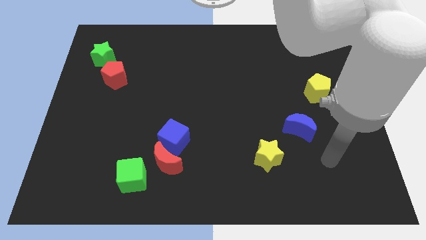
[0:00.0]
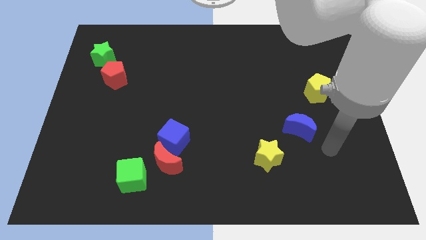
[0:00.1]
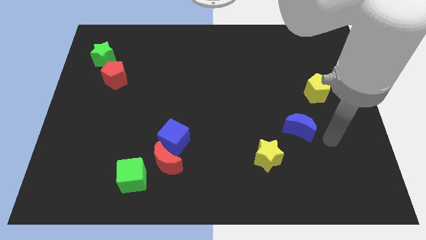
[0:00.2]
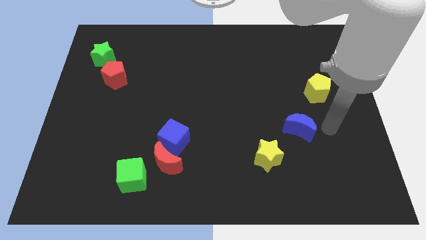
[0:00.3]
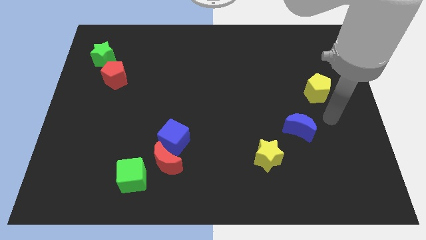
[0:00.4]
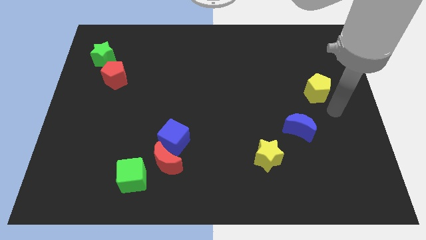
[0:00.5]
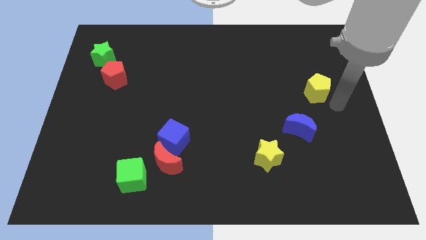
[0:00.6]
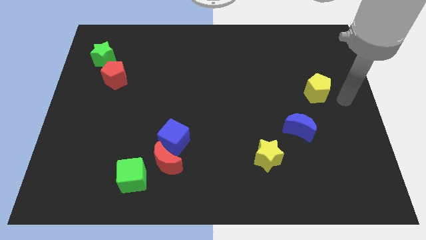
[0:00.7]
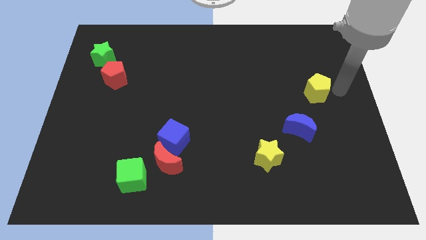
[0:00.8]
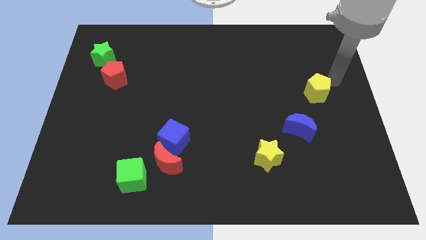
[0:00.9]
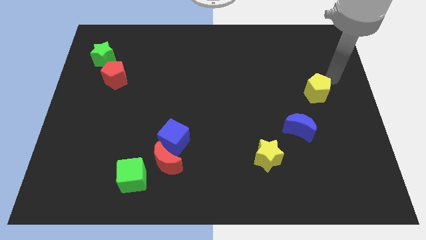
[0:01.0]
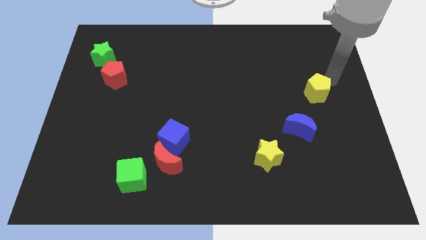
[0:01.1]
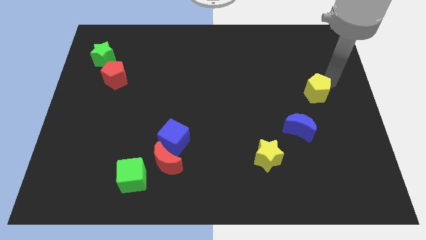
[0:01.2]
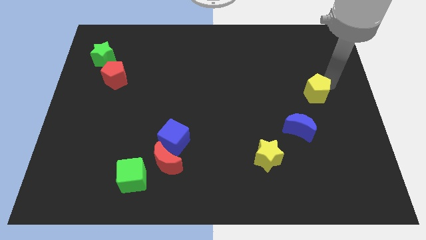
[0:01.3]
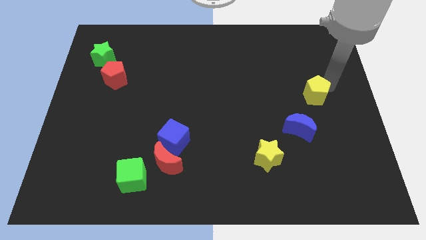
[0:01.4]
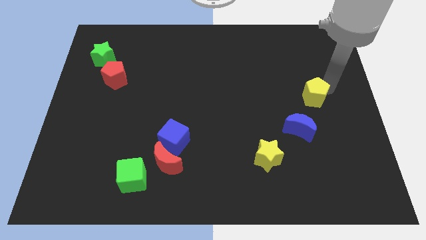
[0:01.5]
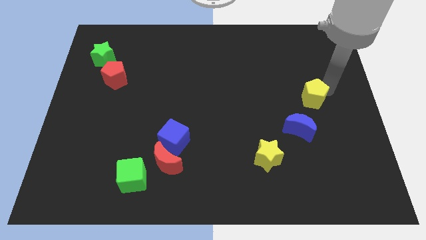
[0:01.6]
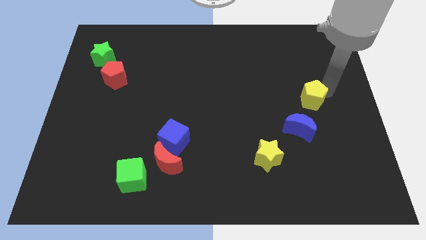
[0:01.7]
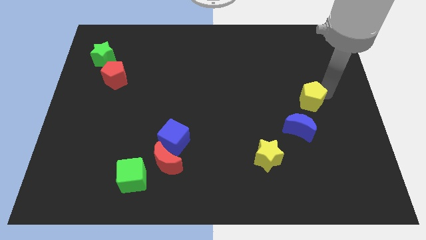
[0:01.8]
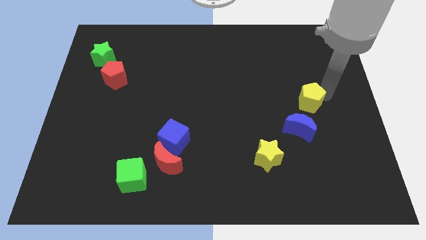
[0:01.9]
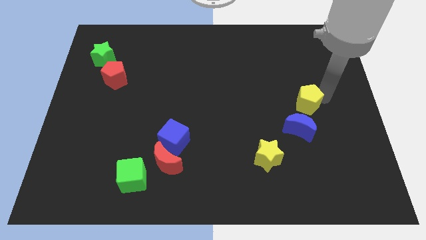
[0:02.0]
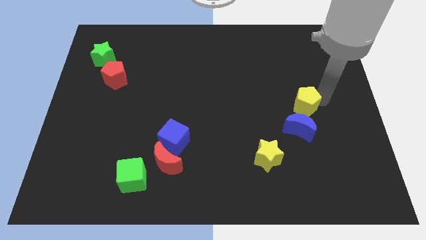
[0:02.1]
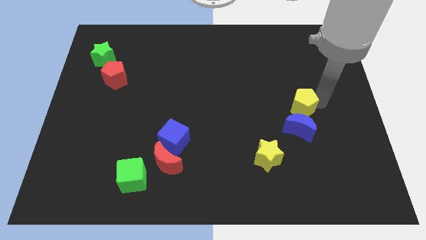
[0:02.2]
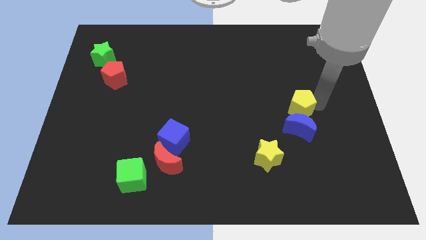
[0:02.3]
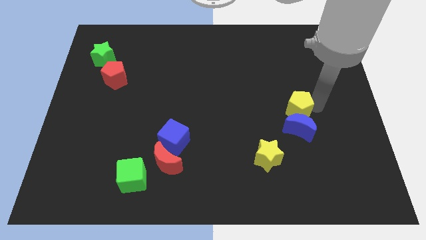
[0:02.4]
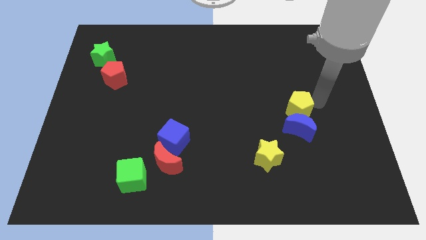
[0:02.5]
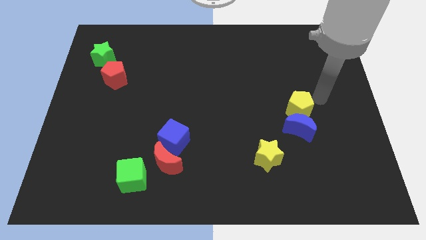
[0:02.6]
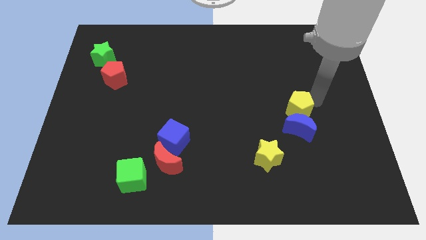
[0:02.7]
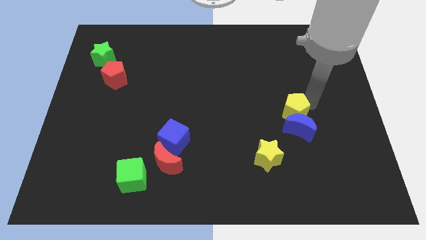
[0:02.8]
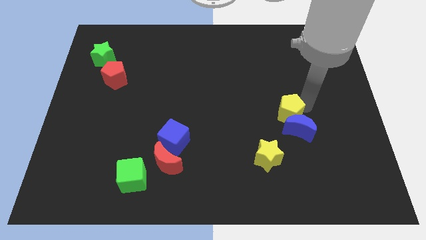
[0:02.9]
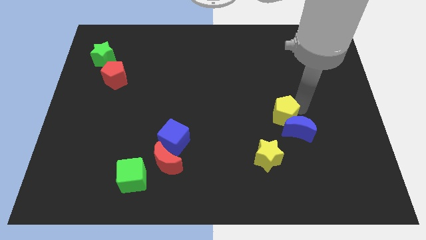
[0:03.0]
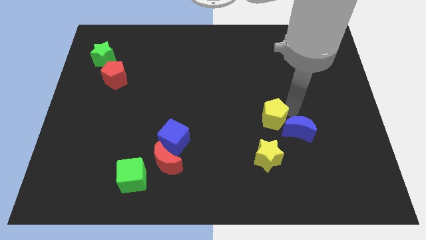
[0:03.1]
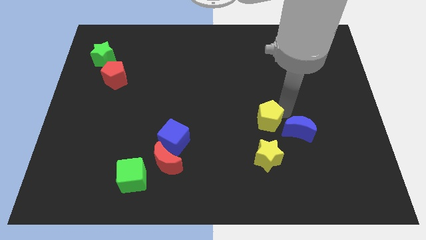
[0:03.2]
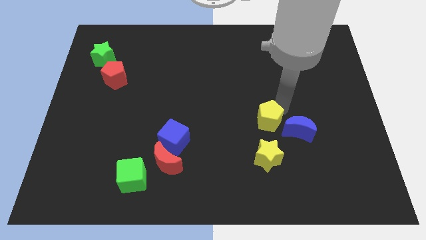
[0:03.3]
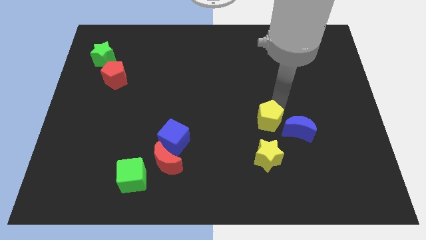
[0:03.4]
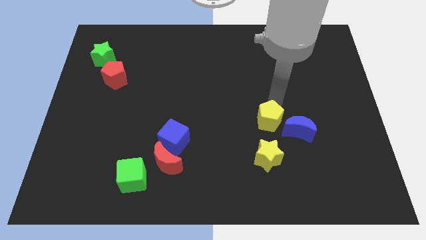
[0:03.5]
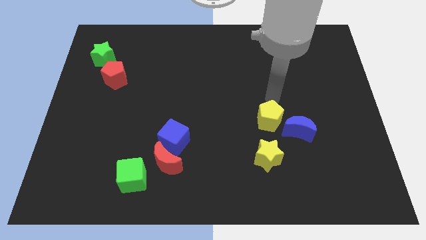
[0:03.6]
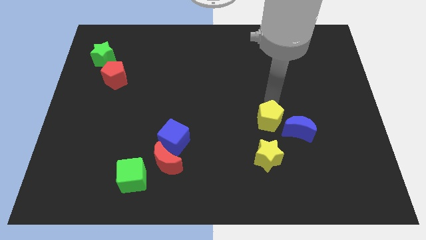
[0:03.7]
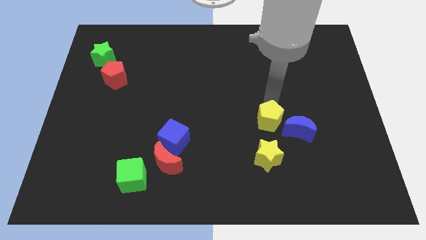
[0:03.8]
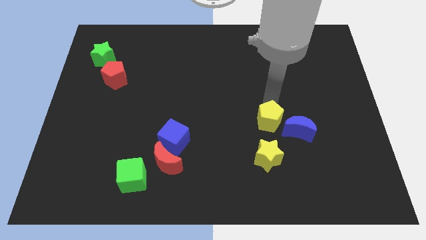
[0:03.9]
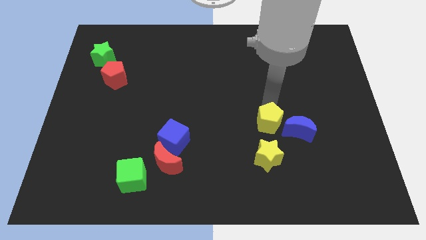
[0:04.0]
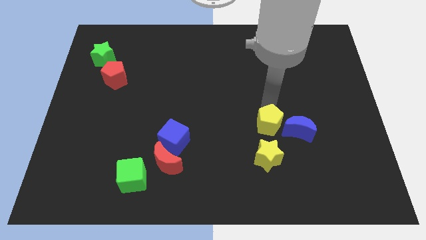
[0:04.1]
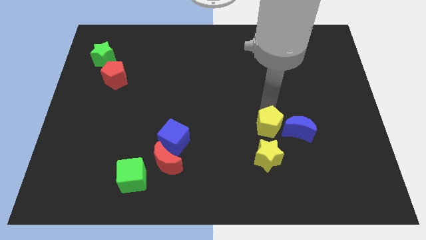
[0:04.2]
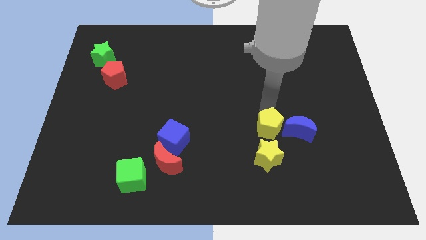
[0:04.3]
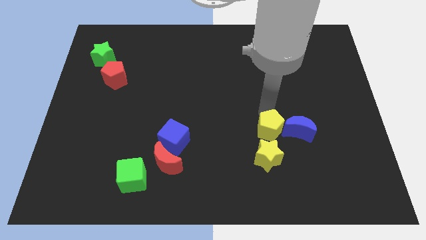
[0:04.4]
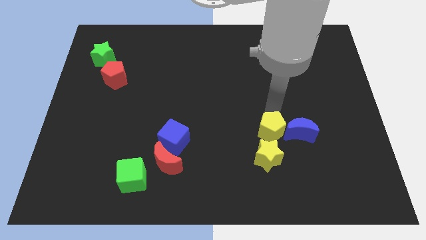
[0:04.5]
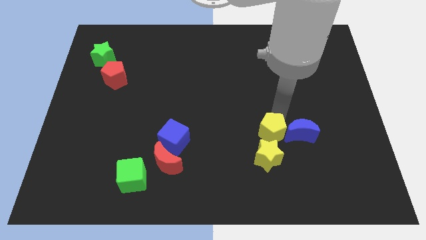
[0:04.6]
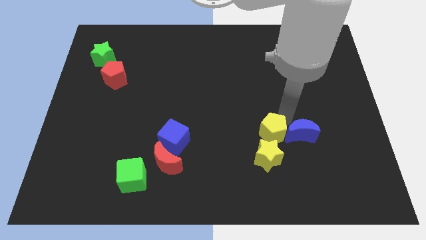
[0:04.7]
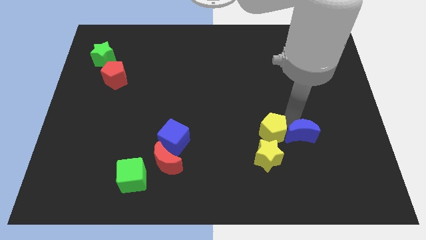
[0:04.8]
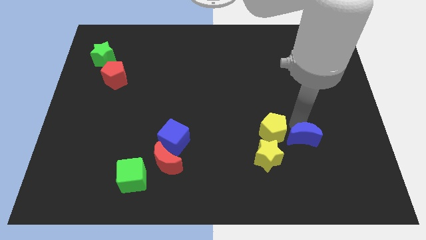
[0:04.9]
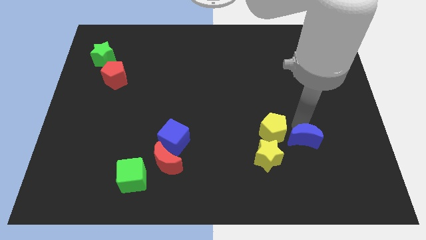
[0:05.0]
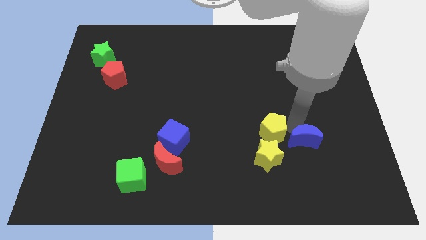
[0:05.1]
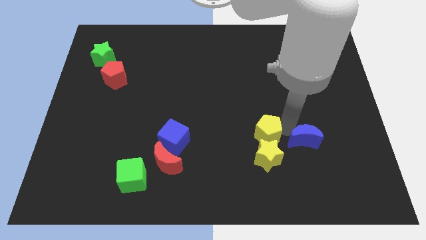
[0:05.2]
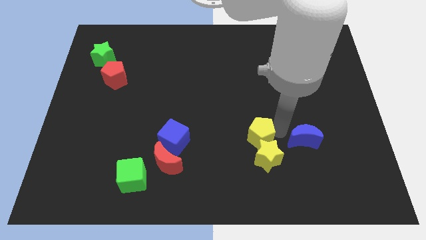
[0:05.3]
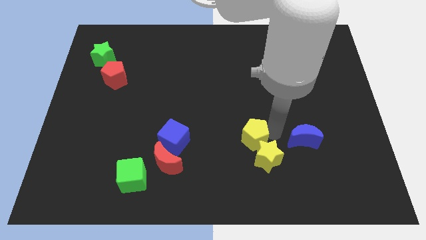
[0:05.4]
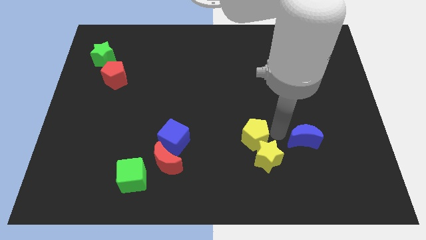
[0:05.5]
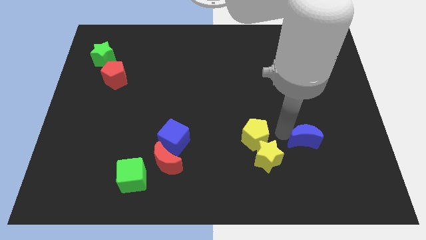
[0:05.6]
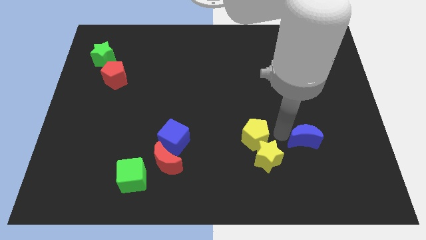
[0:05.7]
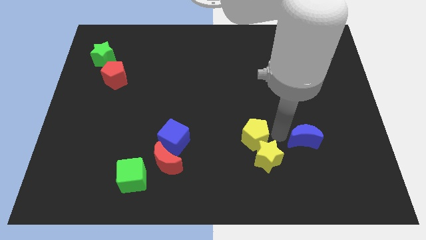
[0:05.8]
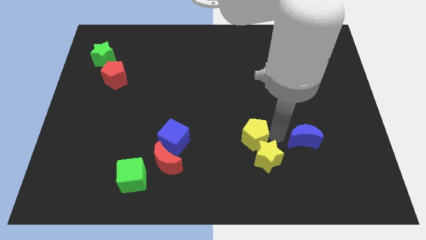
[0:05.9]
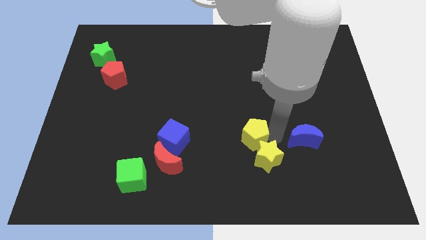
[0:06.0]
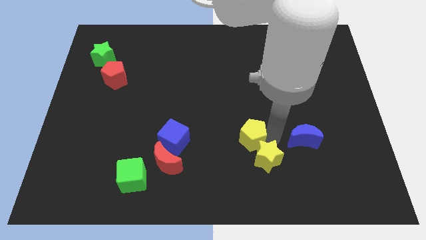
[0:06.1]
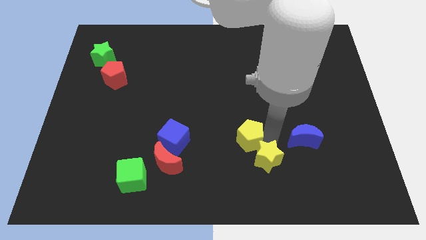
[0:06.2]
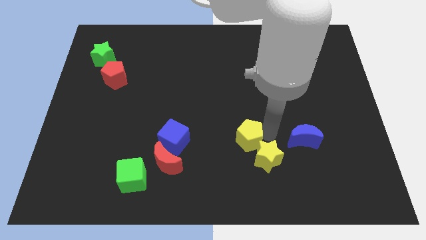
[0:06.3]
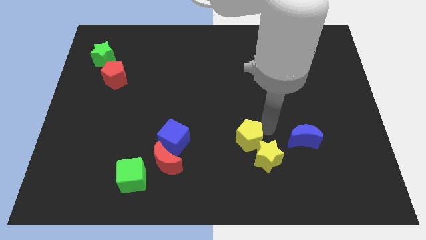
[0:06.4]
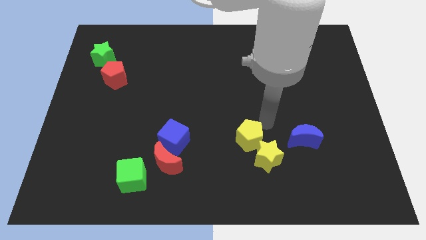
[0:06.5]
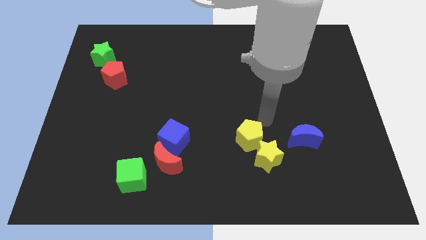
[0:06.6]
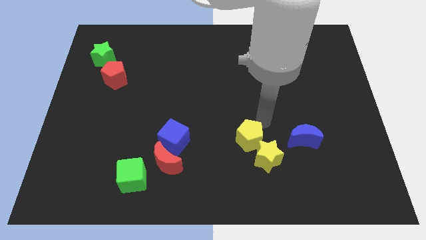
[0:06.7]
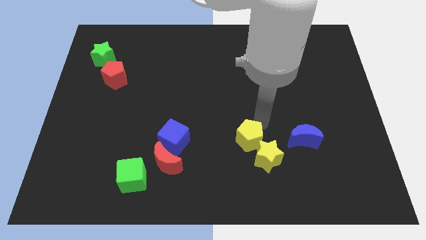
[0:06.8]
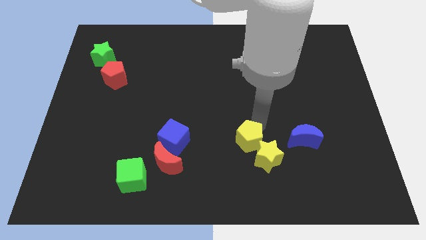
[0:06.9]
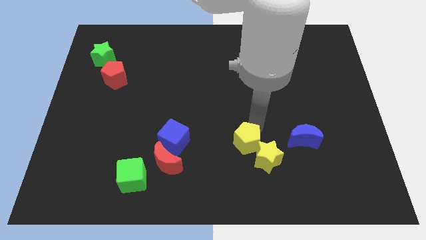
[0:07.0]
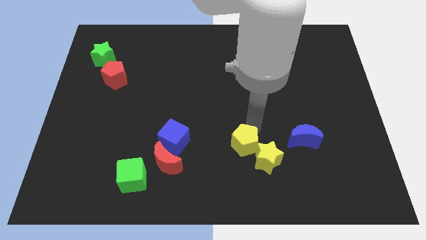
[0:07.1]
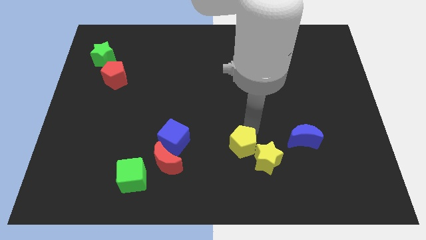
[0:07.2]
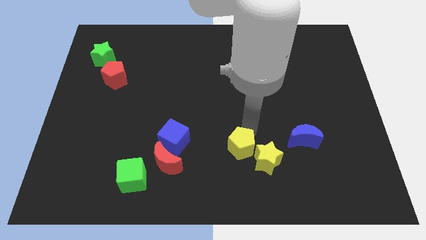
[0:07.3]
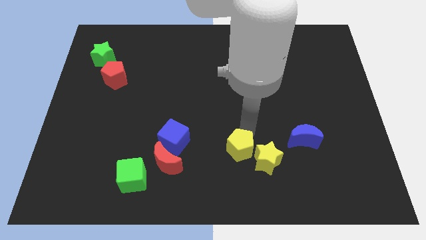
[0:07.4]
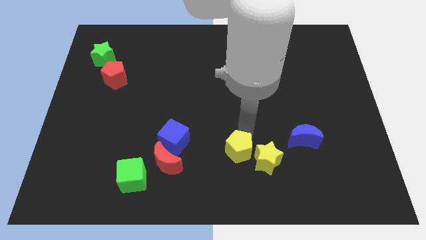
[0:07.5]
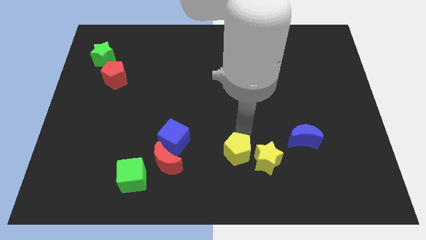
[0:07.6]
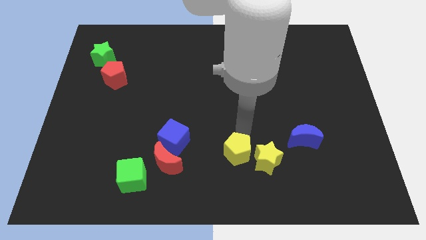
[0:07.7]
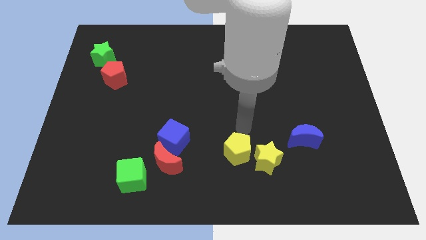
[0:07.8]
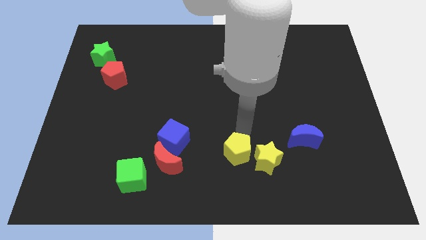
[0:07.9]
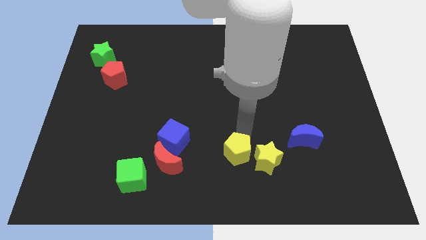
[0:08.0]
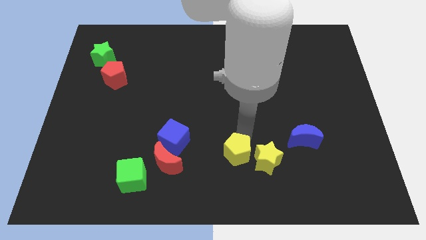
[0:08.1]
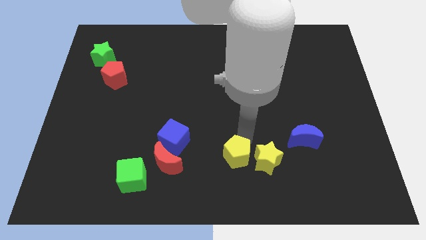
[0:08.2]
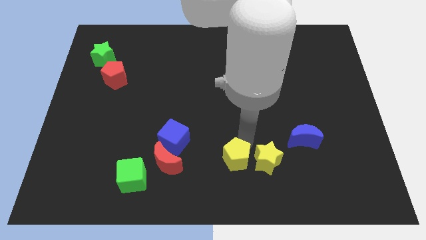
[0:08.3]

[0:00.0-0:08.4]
put the yellow pentagon to the bottom side
